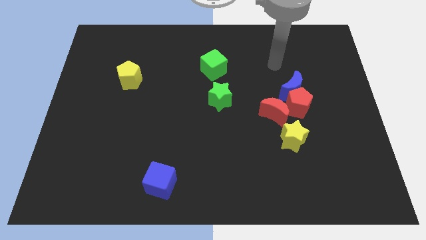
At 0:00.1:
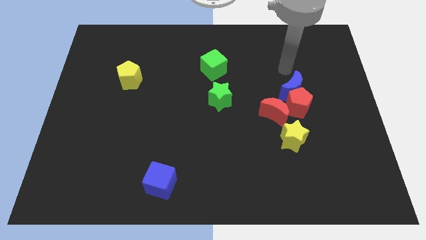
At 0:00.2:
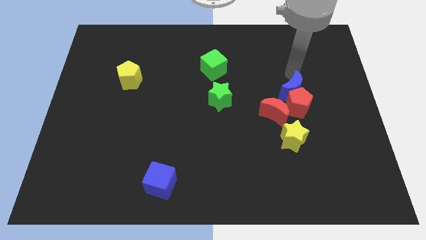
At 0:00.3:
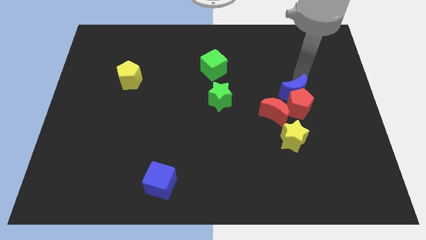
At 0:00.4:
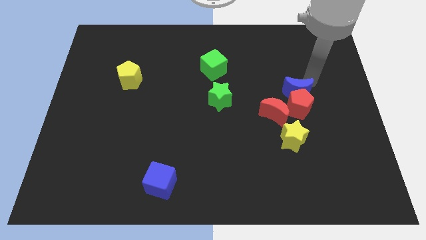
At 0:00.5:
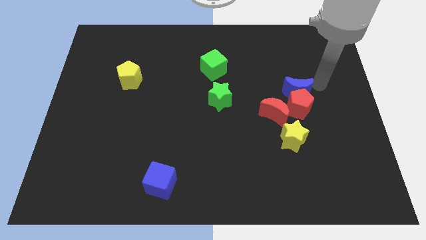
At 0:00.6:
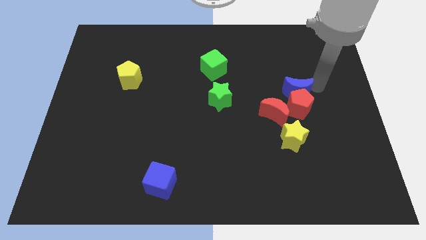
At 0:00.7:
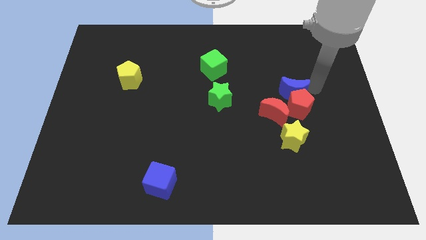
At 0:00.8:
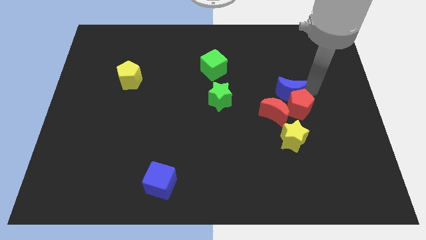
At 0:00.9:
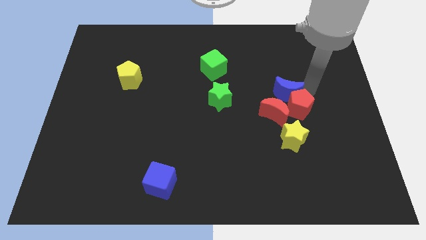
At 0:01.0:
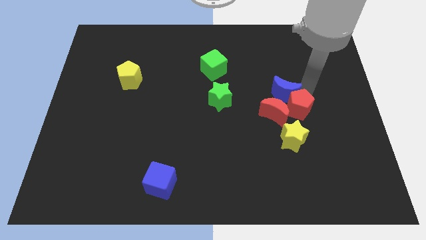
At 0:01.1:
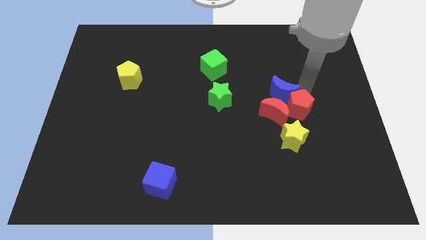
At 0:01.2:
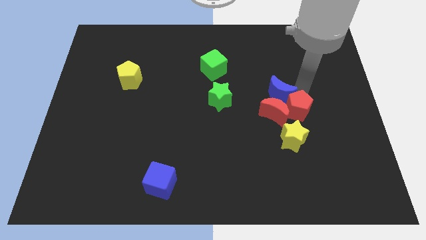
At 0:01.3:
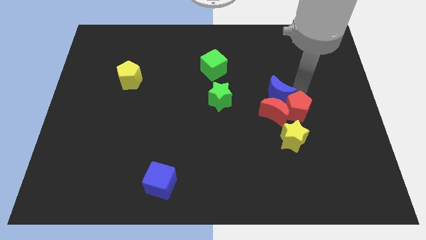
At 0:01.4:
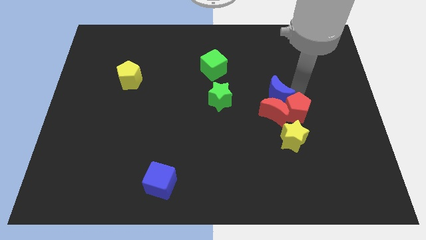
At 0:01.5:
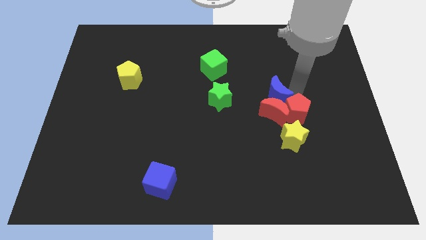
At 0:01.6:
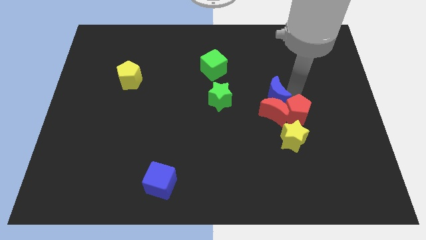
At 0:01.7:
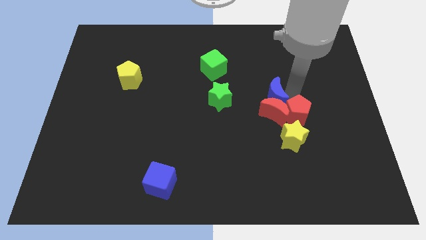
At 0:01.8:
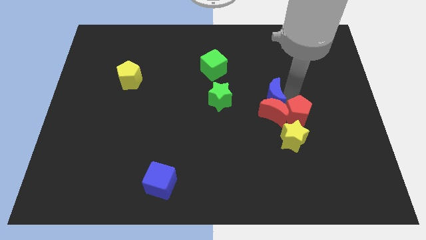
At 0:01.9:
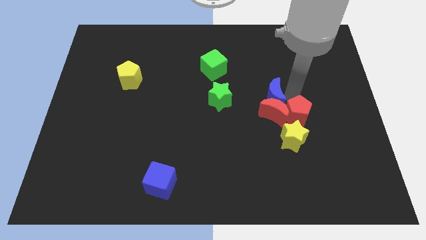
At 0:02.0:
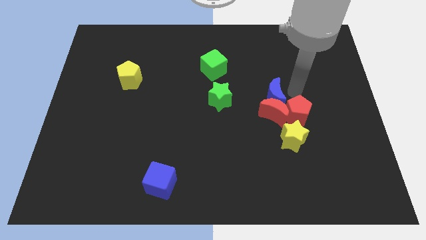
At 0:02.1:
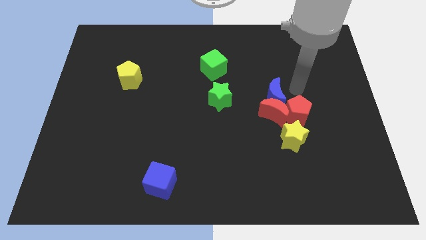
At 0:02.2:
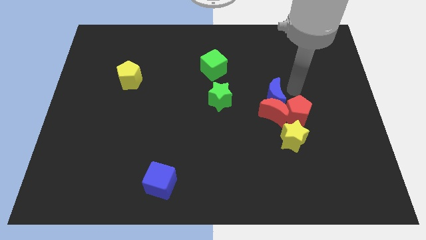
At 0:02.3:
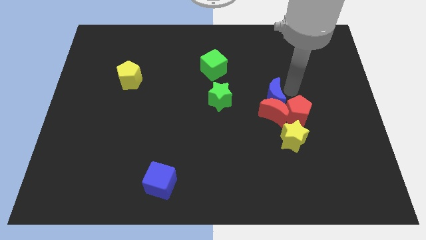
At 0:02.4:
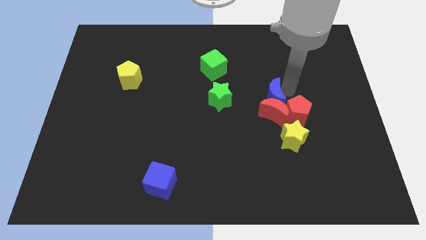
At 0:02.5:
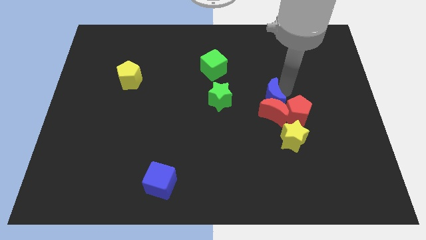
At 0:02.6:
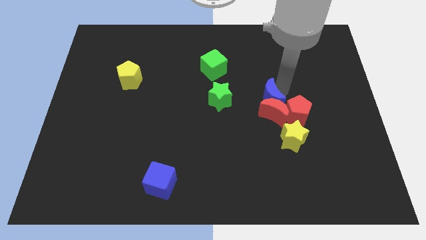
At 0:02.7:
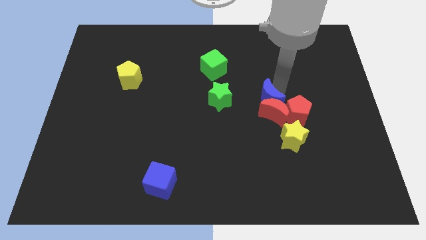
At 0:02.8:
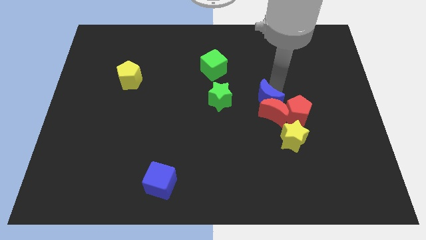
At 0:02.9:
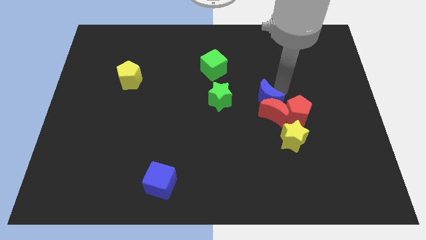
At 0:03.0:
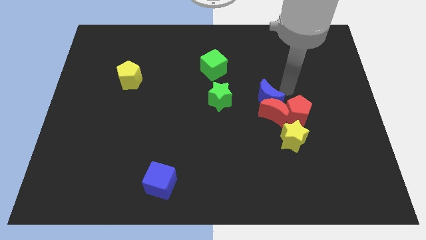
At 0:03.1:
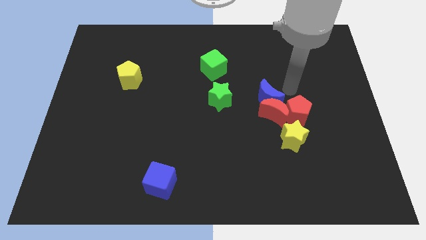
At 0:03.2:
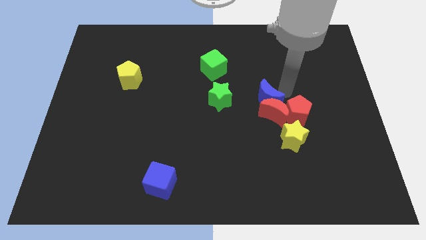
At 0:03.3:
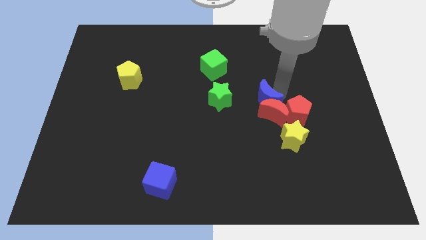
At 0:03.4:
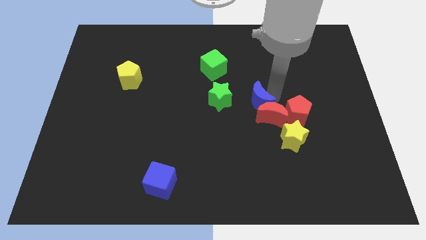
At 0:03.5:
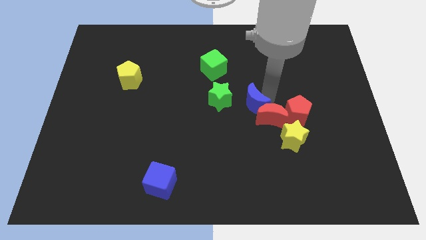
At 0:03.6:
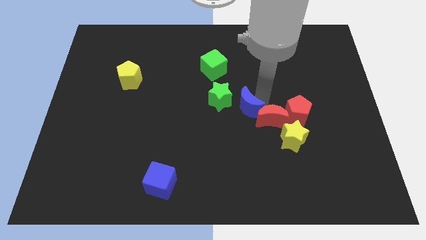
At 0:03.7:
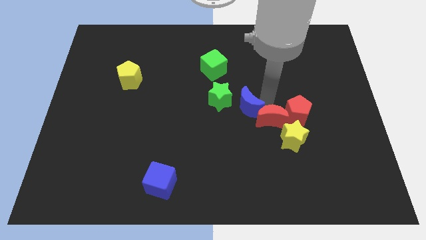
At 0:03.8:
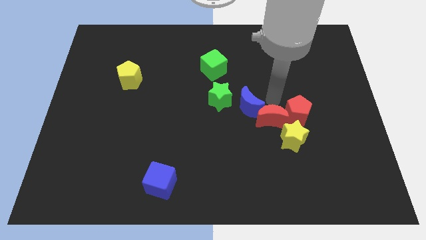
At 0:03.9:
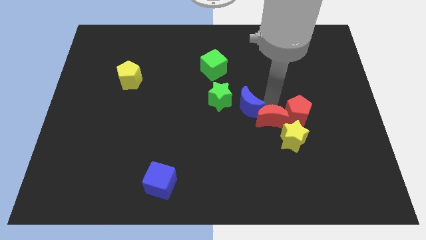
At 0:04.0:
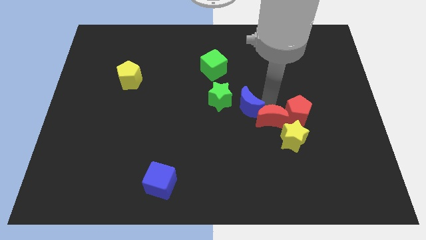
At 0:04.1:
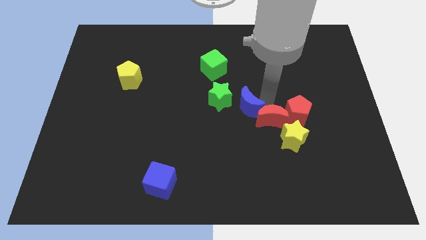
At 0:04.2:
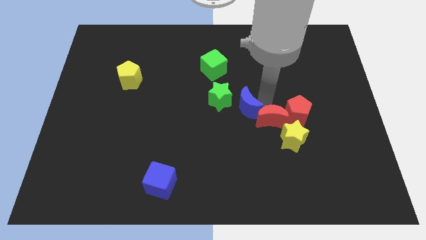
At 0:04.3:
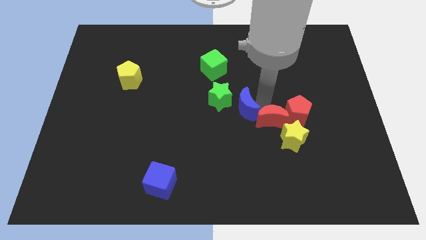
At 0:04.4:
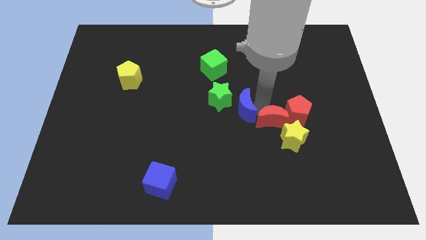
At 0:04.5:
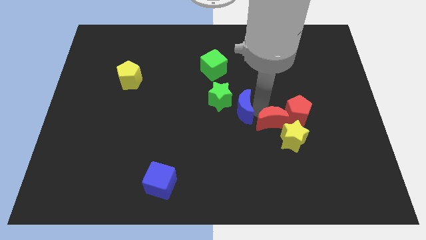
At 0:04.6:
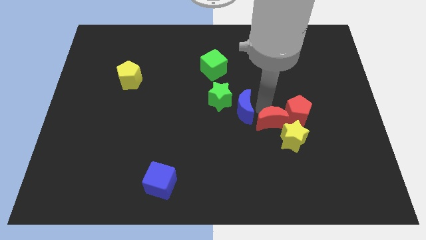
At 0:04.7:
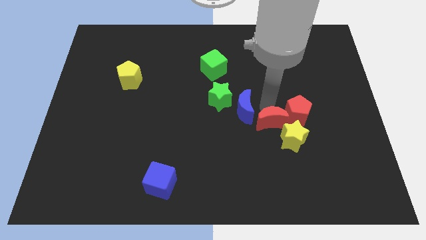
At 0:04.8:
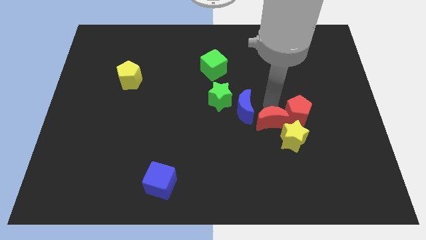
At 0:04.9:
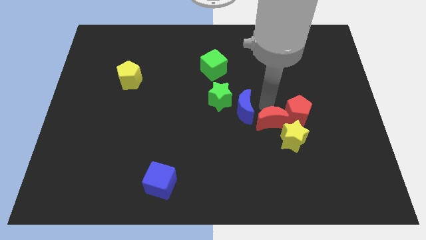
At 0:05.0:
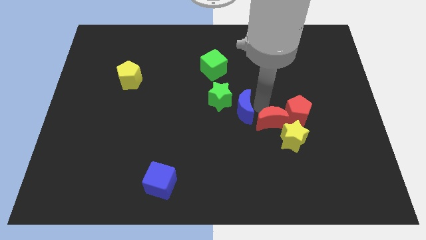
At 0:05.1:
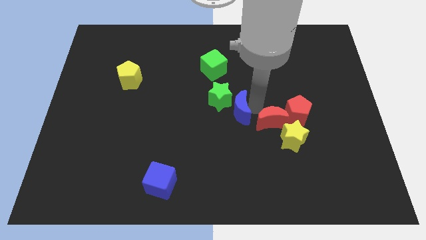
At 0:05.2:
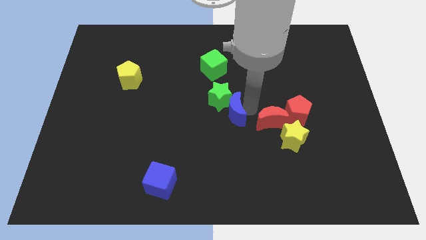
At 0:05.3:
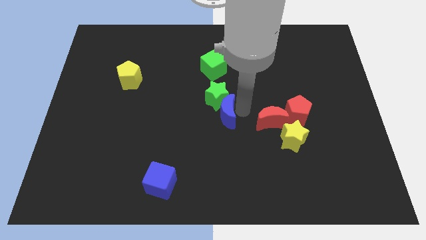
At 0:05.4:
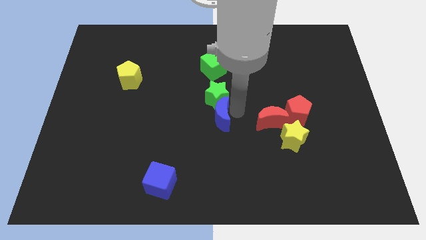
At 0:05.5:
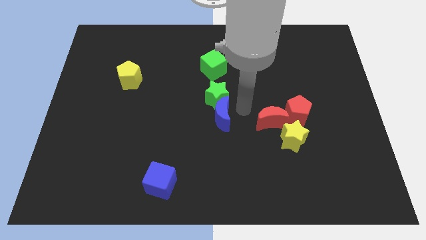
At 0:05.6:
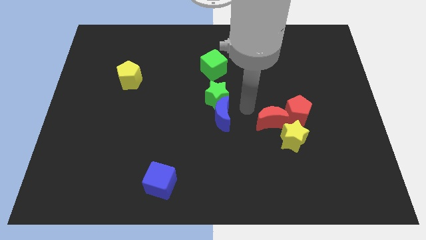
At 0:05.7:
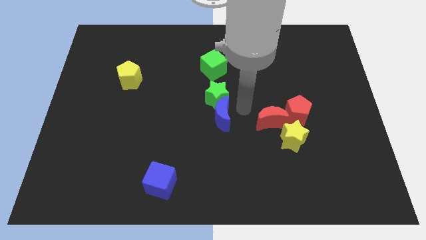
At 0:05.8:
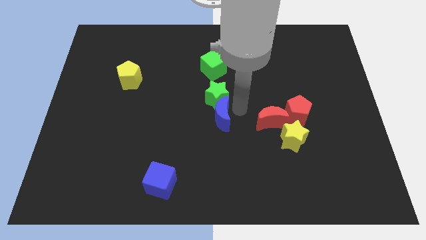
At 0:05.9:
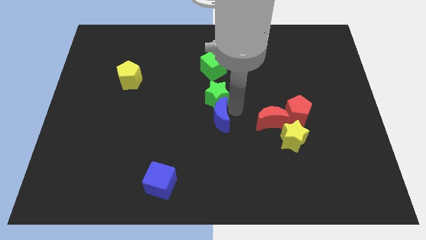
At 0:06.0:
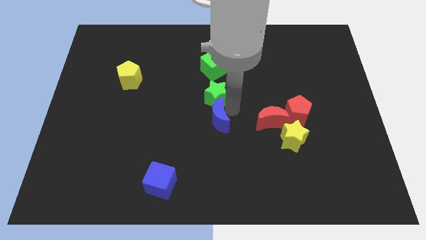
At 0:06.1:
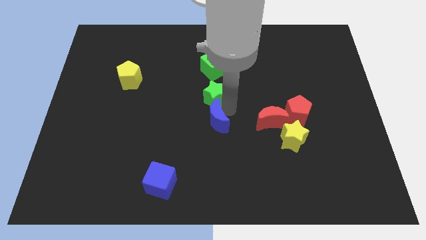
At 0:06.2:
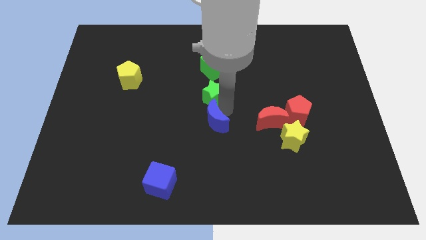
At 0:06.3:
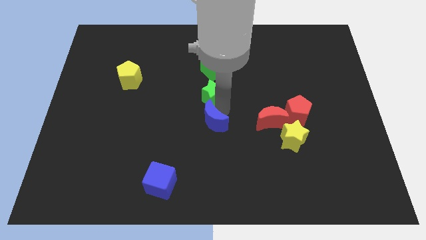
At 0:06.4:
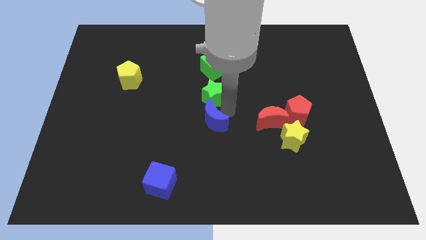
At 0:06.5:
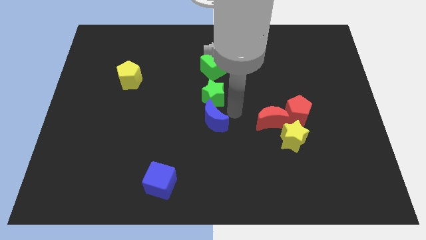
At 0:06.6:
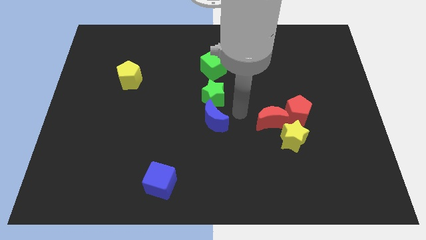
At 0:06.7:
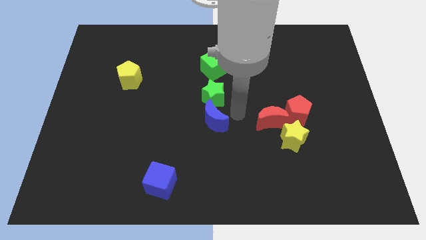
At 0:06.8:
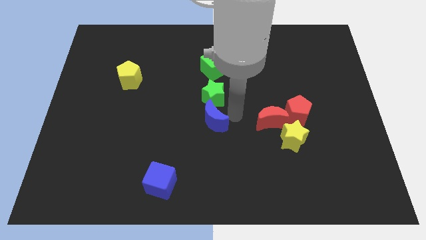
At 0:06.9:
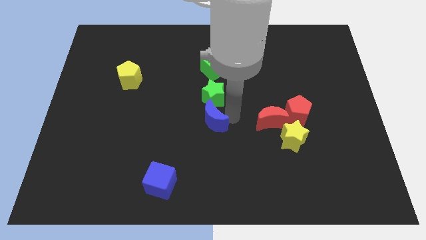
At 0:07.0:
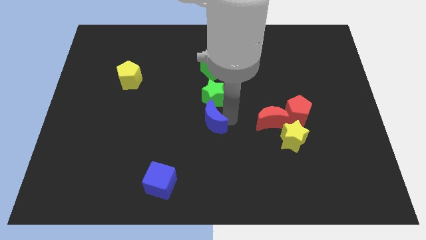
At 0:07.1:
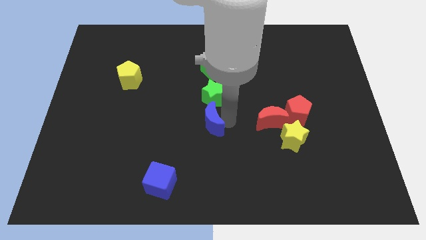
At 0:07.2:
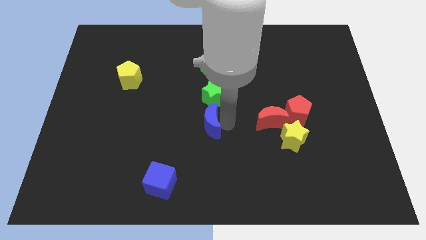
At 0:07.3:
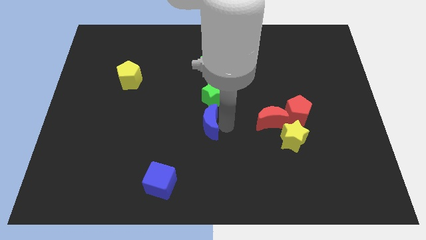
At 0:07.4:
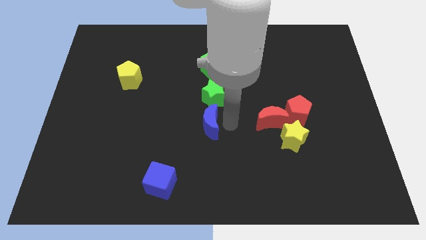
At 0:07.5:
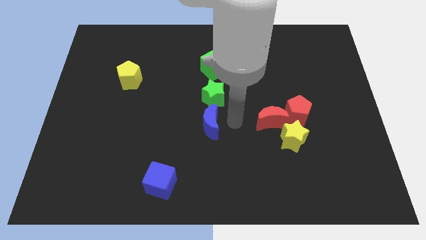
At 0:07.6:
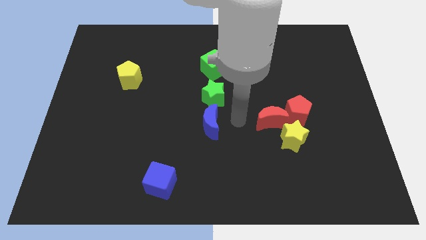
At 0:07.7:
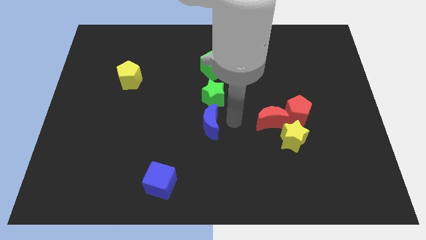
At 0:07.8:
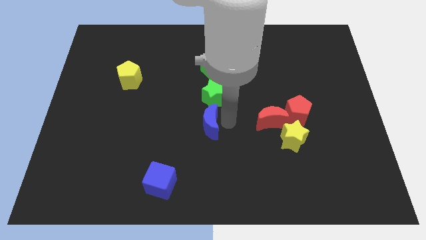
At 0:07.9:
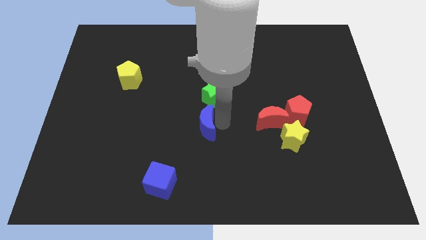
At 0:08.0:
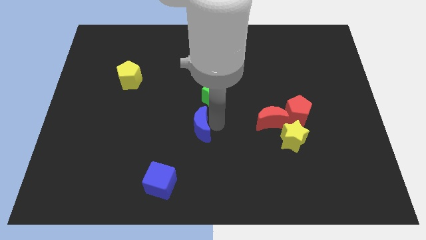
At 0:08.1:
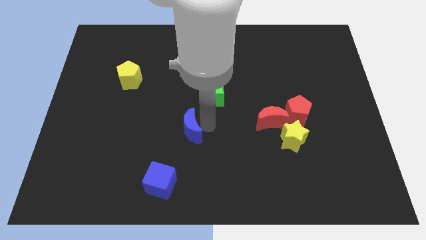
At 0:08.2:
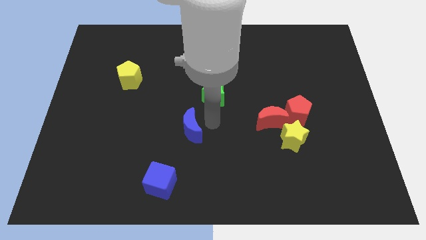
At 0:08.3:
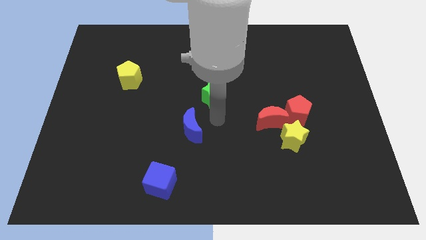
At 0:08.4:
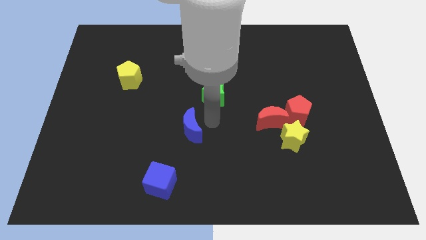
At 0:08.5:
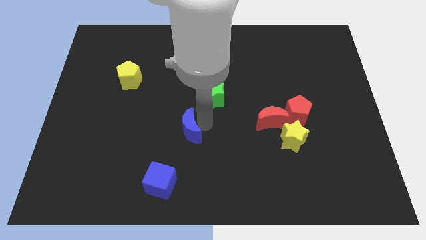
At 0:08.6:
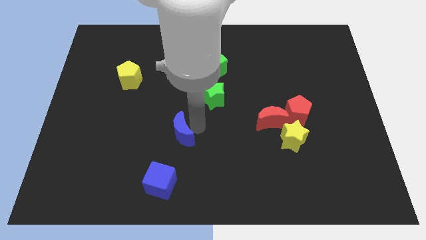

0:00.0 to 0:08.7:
push the blue moon to the top side of the blue cube
